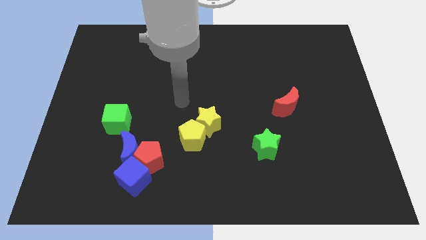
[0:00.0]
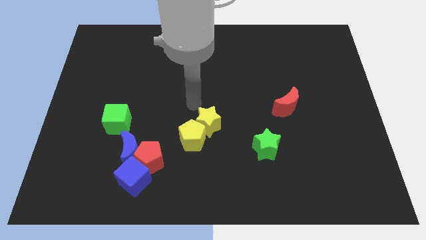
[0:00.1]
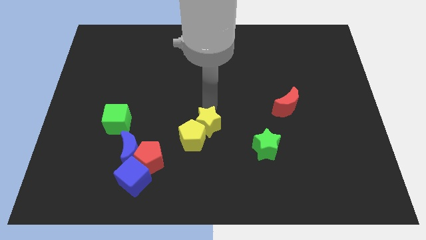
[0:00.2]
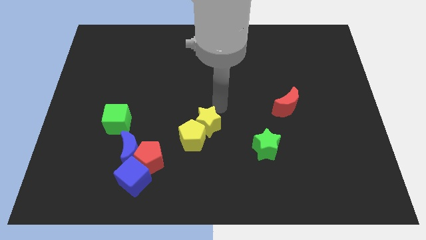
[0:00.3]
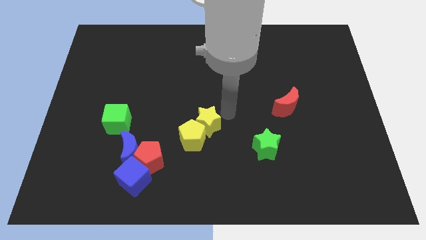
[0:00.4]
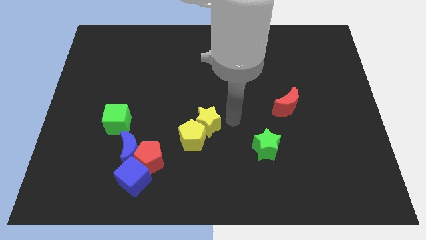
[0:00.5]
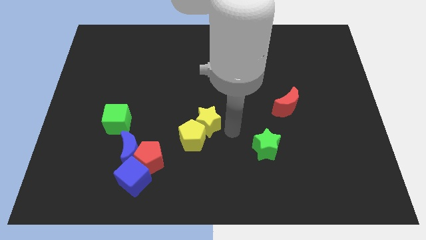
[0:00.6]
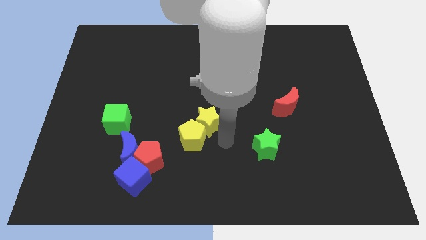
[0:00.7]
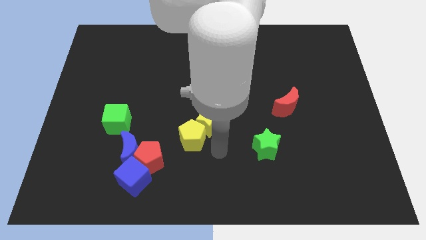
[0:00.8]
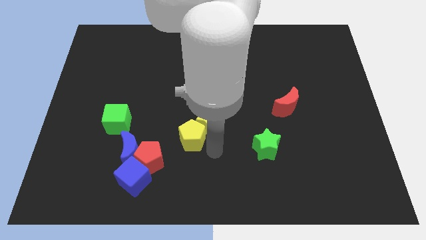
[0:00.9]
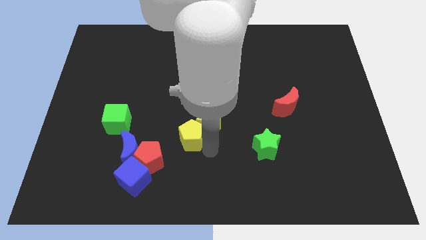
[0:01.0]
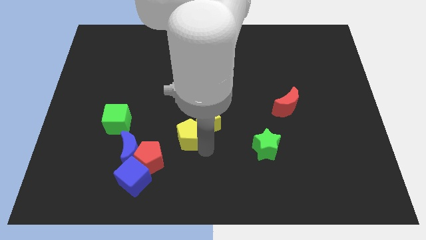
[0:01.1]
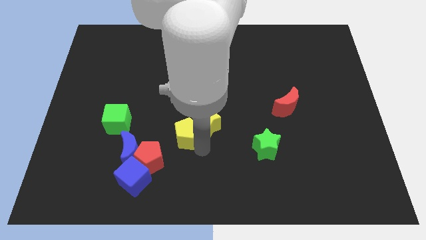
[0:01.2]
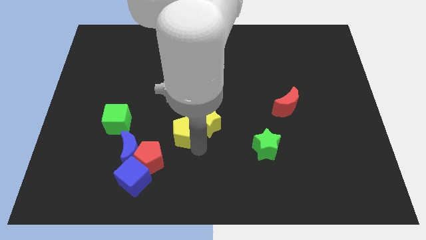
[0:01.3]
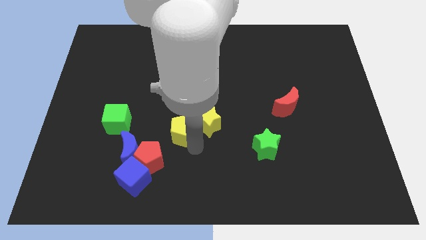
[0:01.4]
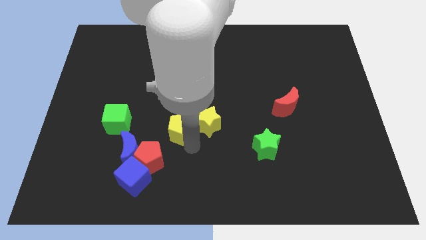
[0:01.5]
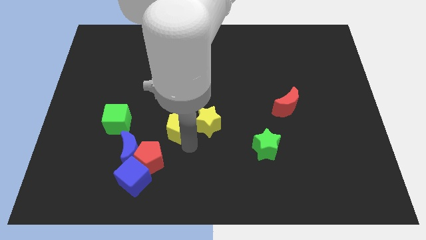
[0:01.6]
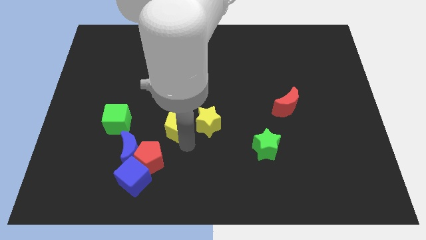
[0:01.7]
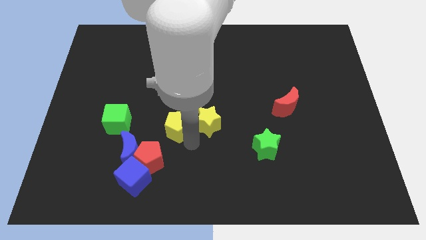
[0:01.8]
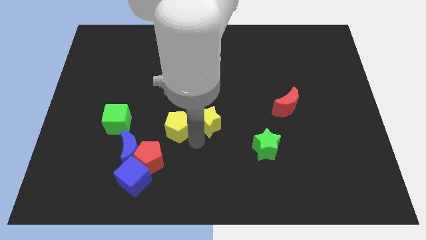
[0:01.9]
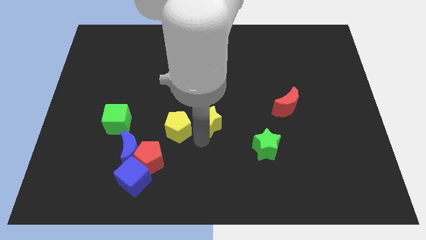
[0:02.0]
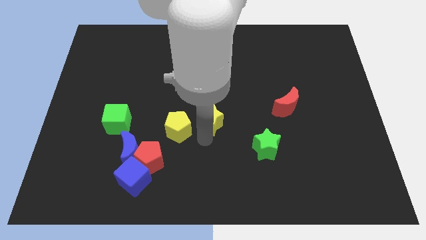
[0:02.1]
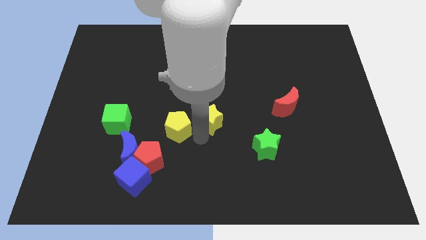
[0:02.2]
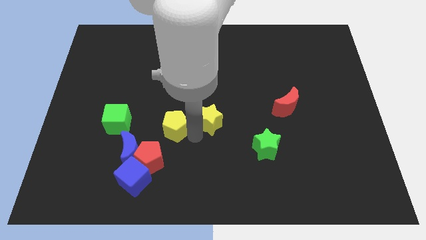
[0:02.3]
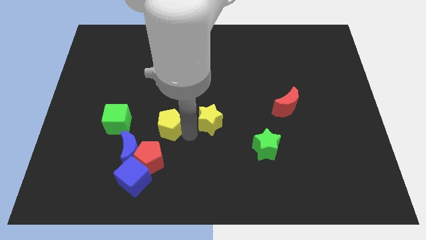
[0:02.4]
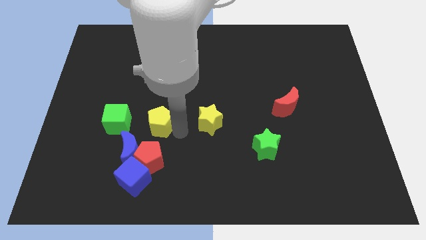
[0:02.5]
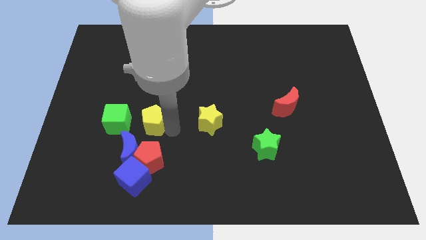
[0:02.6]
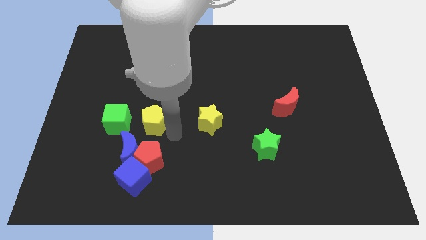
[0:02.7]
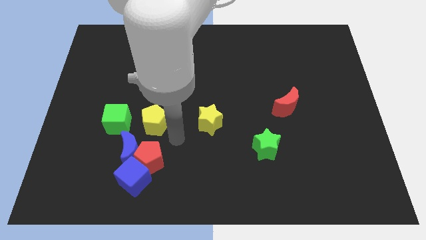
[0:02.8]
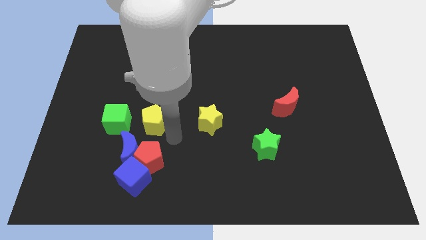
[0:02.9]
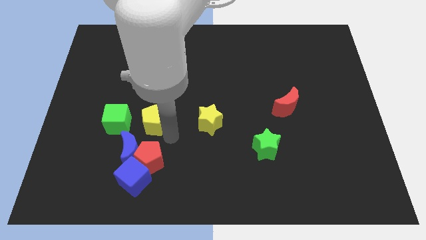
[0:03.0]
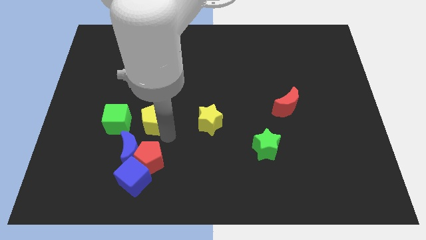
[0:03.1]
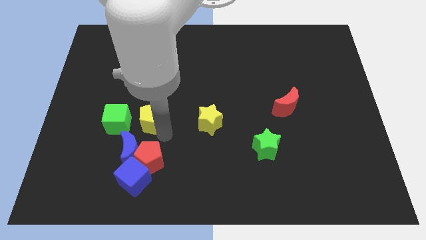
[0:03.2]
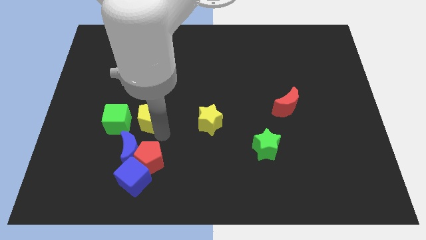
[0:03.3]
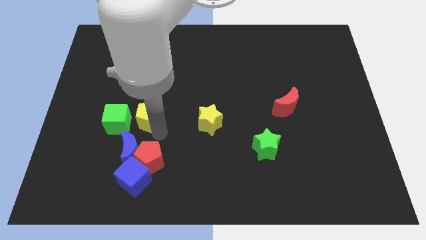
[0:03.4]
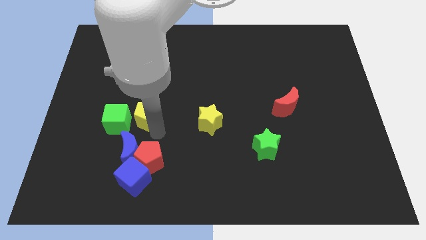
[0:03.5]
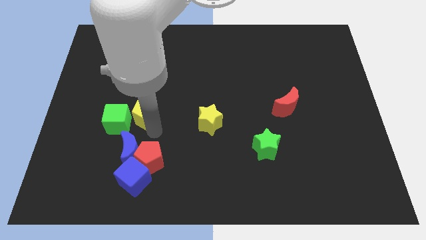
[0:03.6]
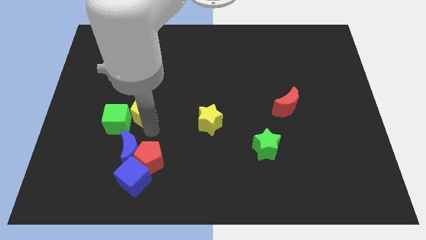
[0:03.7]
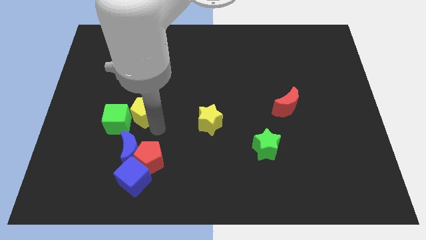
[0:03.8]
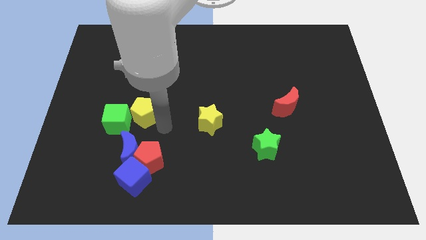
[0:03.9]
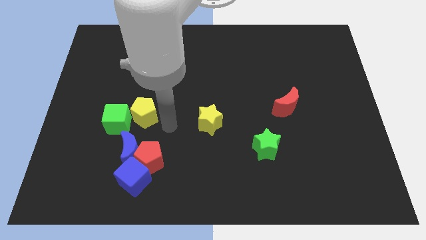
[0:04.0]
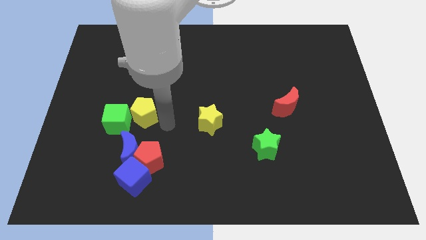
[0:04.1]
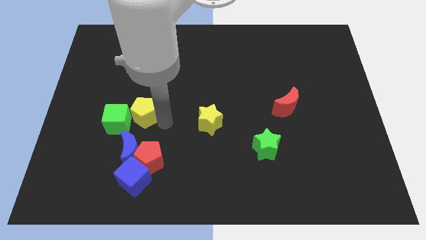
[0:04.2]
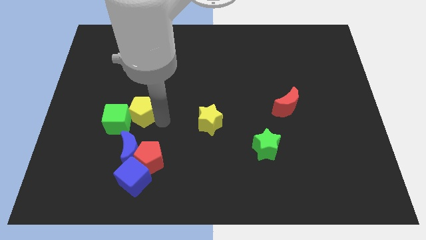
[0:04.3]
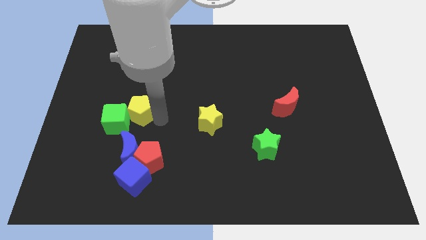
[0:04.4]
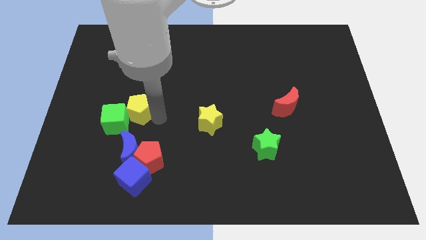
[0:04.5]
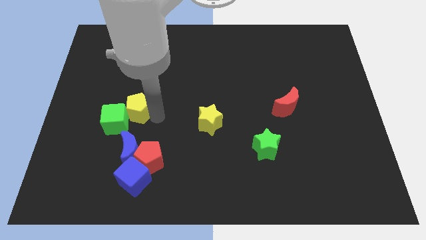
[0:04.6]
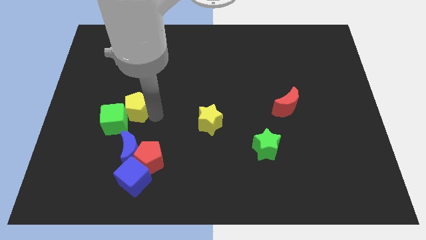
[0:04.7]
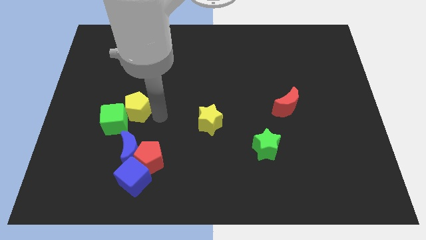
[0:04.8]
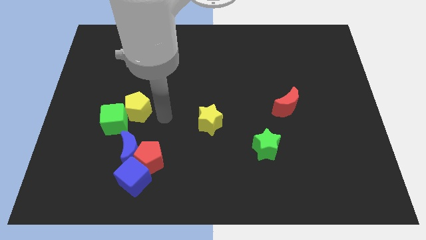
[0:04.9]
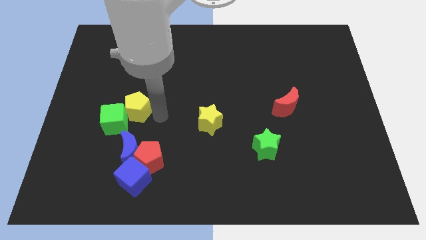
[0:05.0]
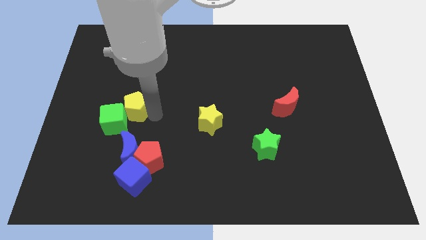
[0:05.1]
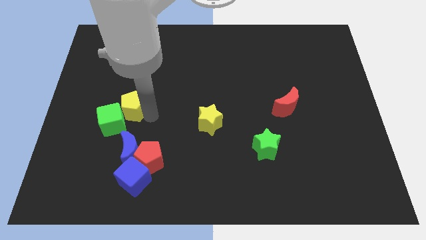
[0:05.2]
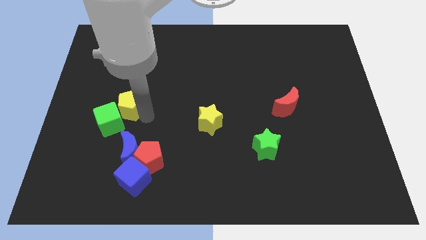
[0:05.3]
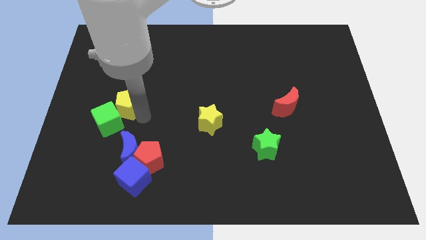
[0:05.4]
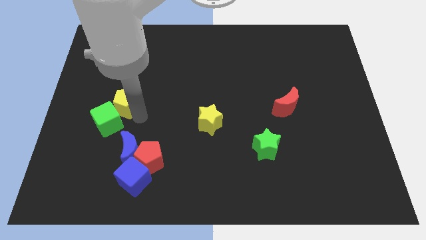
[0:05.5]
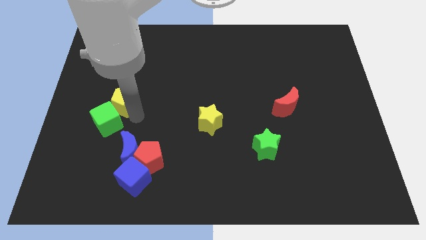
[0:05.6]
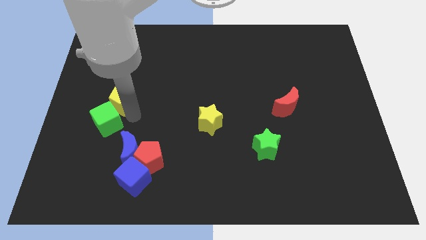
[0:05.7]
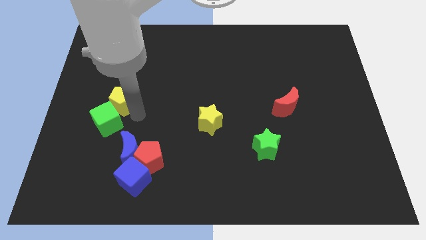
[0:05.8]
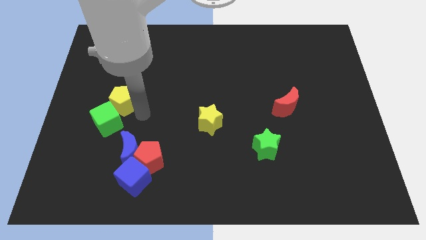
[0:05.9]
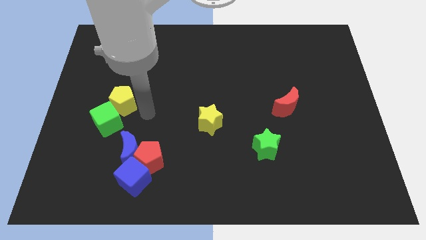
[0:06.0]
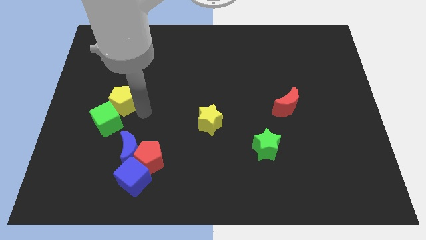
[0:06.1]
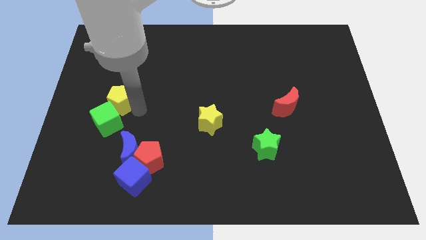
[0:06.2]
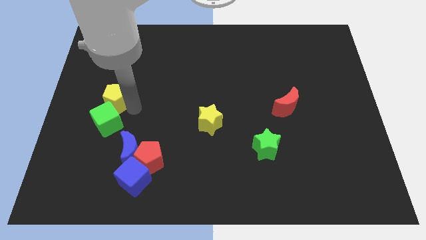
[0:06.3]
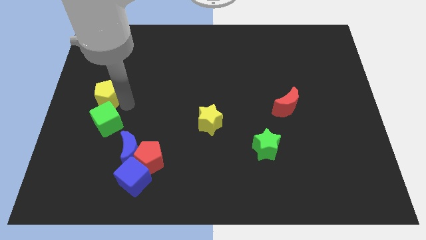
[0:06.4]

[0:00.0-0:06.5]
slide the yellow pentagon to the left side

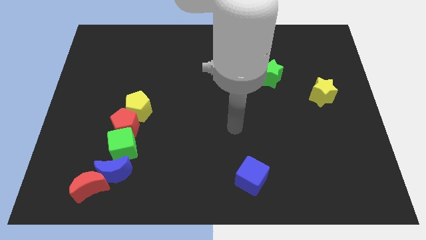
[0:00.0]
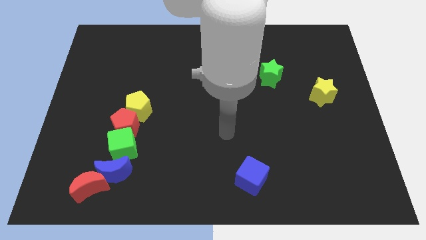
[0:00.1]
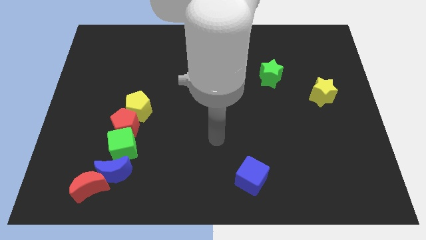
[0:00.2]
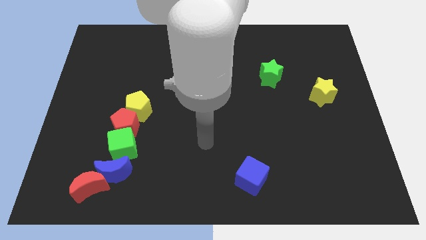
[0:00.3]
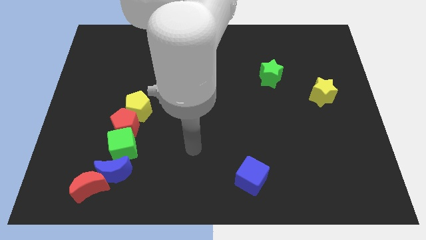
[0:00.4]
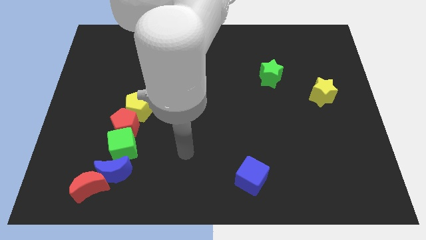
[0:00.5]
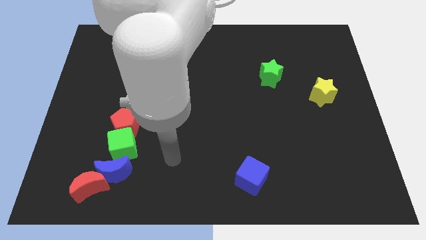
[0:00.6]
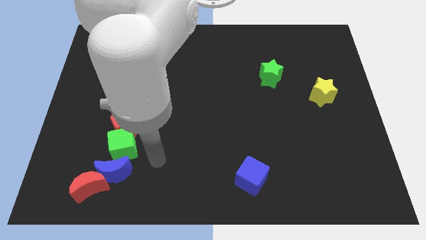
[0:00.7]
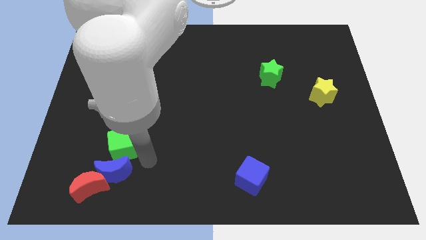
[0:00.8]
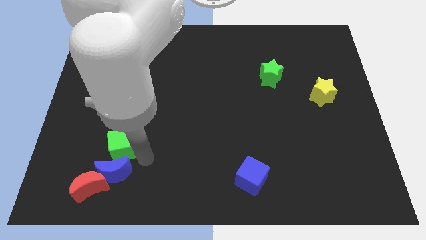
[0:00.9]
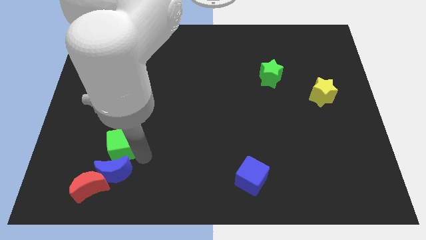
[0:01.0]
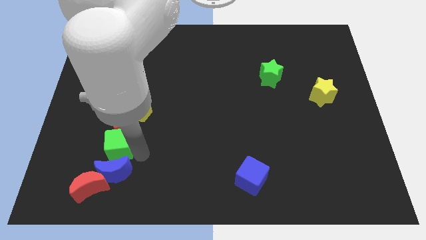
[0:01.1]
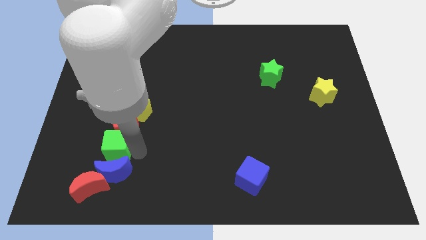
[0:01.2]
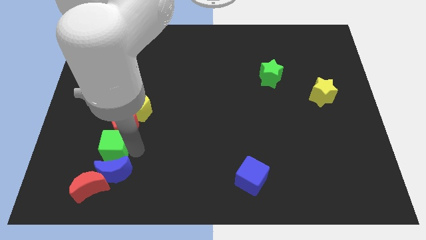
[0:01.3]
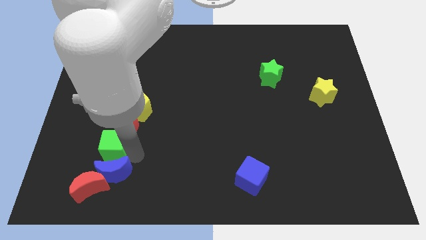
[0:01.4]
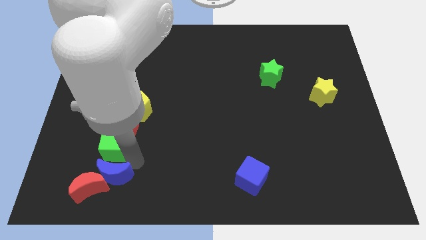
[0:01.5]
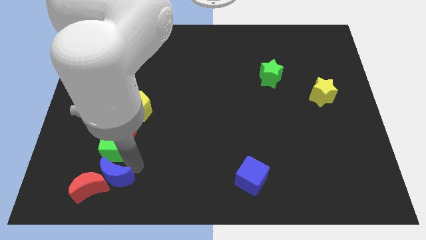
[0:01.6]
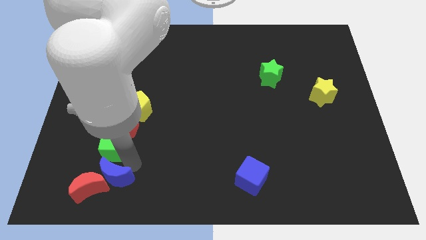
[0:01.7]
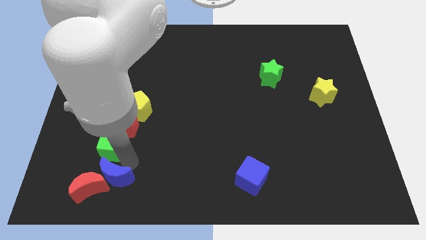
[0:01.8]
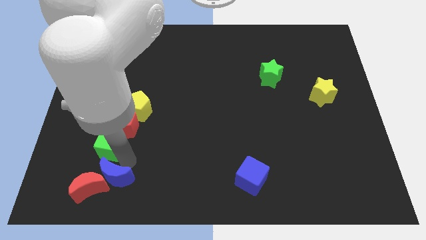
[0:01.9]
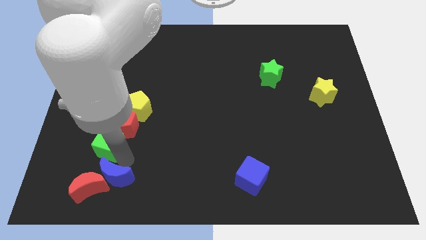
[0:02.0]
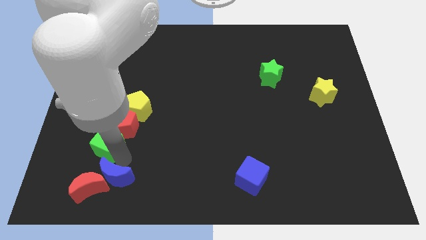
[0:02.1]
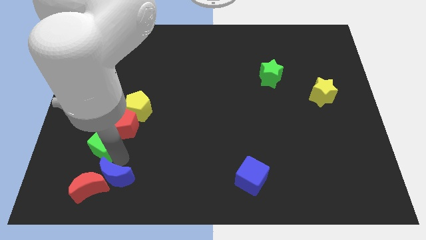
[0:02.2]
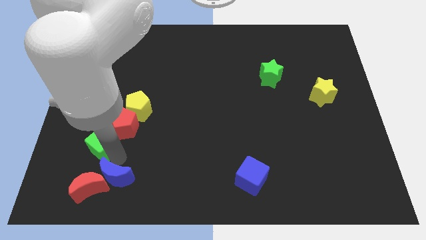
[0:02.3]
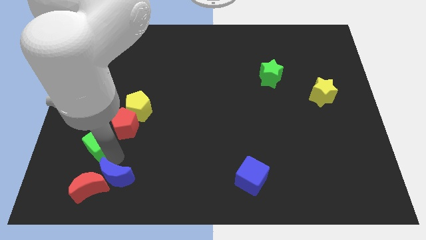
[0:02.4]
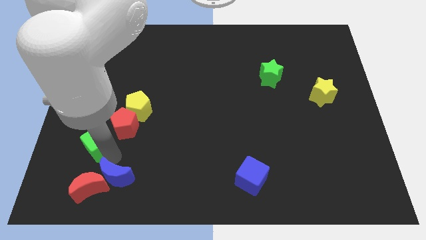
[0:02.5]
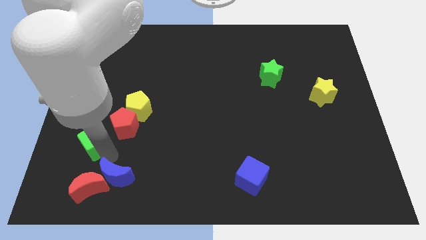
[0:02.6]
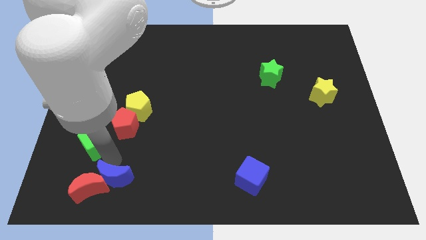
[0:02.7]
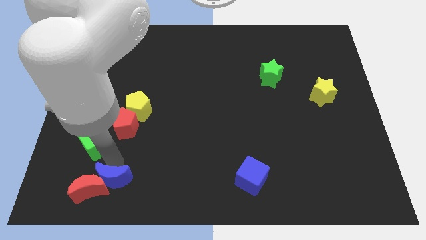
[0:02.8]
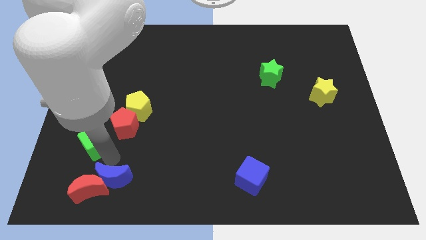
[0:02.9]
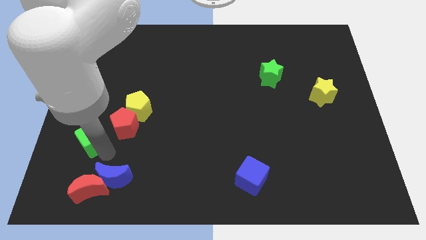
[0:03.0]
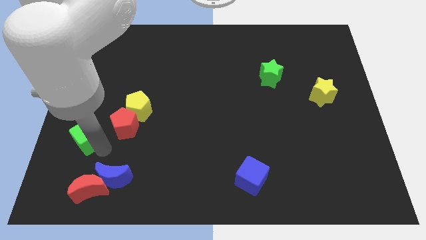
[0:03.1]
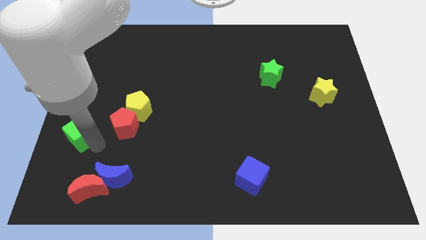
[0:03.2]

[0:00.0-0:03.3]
move the green cube to the center left
